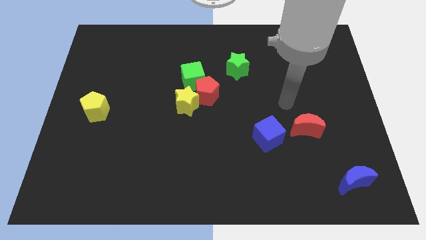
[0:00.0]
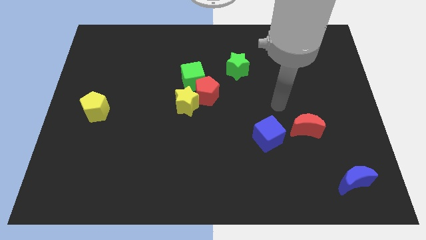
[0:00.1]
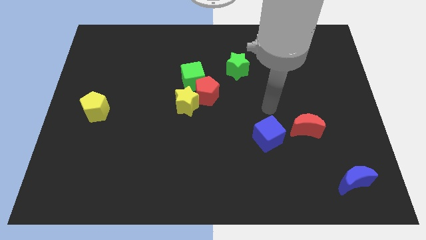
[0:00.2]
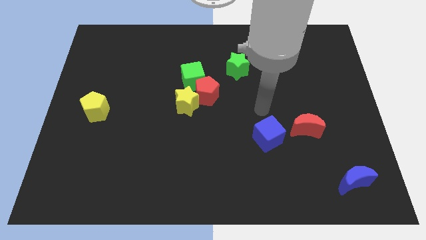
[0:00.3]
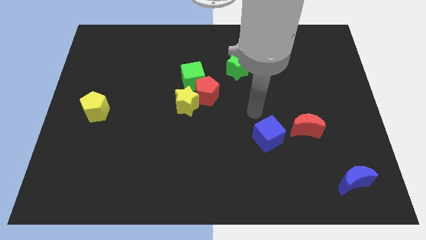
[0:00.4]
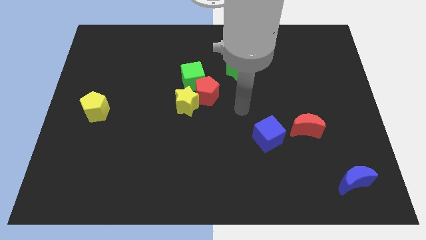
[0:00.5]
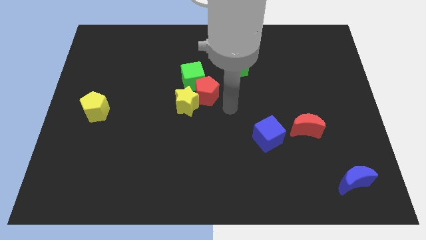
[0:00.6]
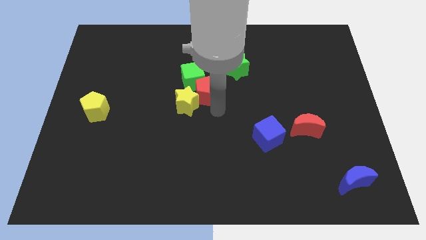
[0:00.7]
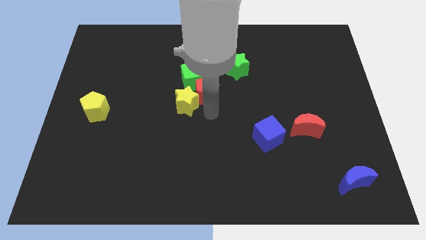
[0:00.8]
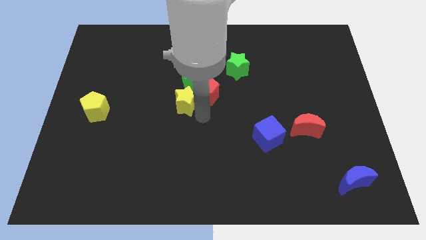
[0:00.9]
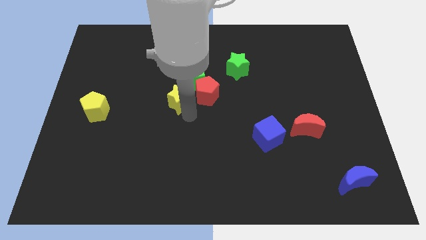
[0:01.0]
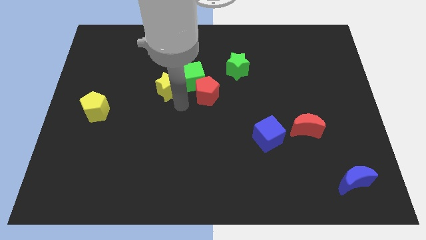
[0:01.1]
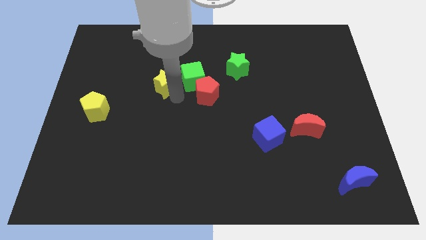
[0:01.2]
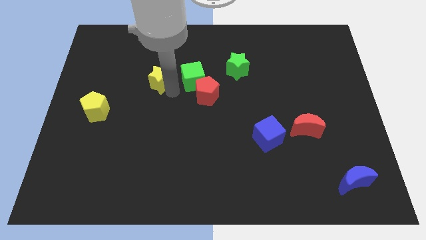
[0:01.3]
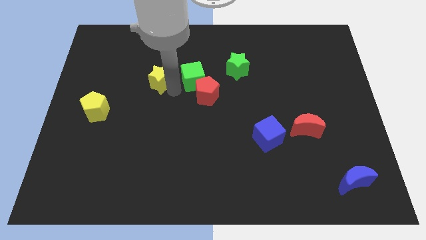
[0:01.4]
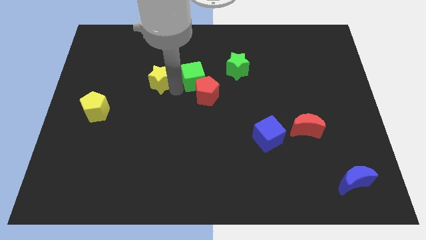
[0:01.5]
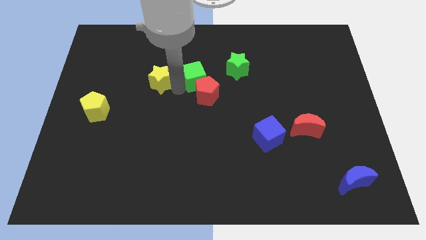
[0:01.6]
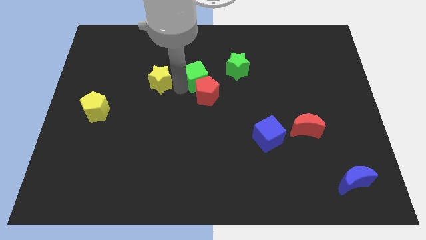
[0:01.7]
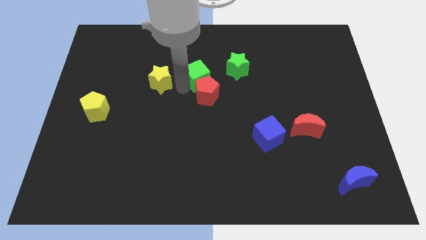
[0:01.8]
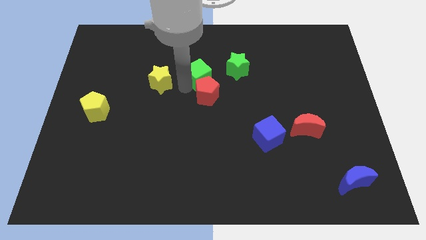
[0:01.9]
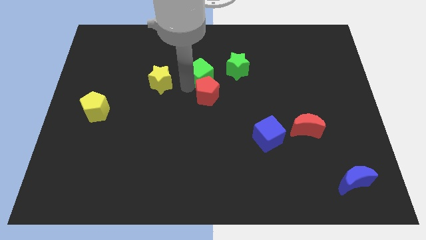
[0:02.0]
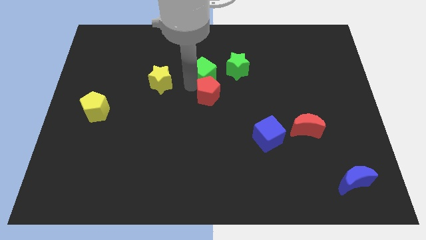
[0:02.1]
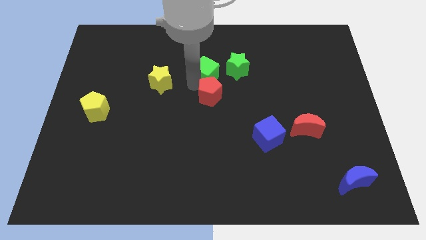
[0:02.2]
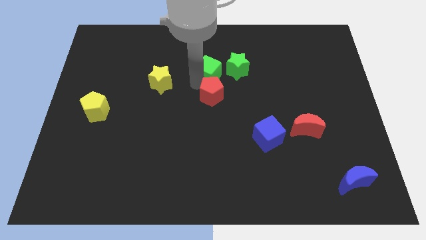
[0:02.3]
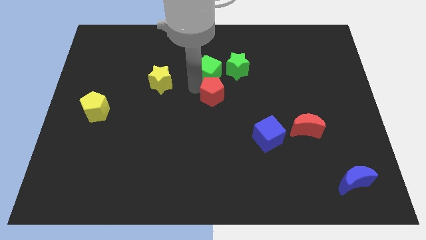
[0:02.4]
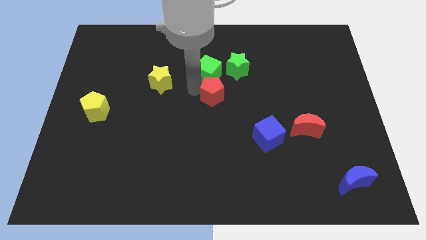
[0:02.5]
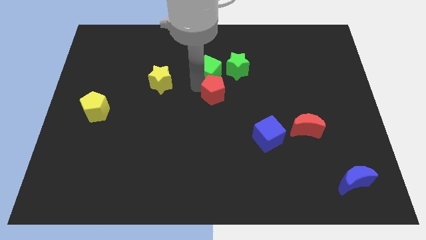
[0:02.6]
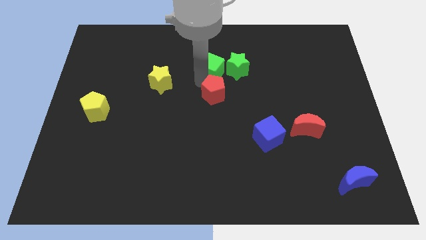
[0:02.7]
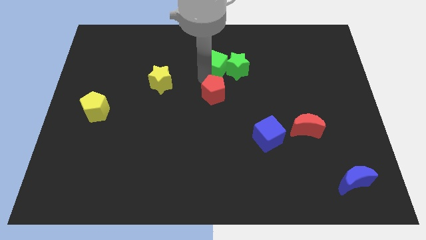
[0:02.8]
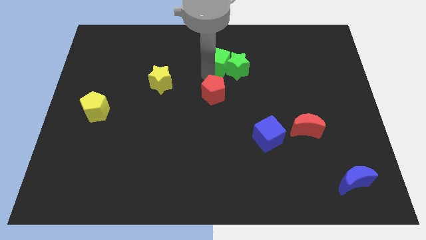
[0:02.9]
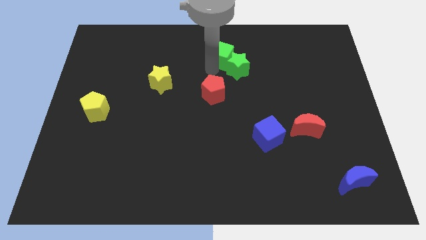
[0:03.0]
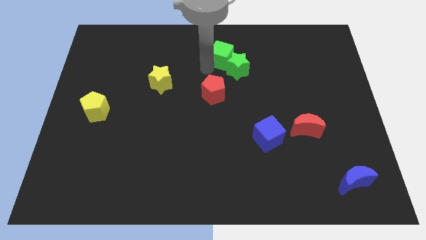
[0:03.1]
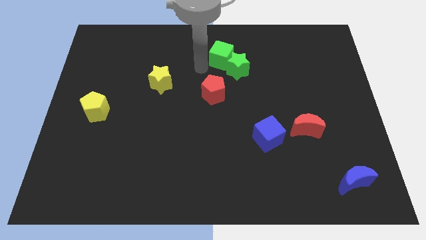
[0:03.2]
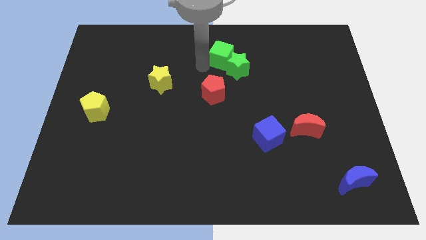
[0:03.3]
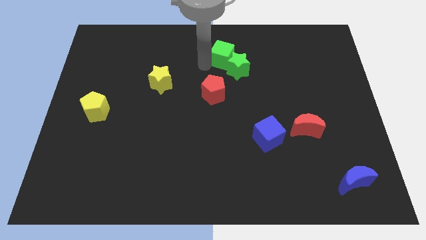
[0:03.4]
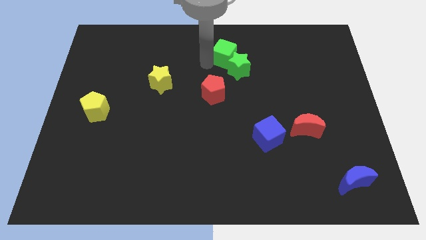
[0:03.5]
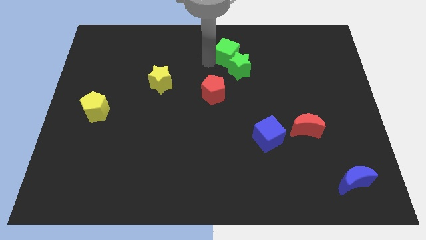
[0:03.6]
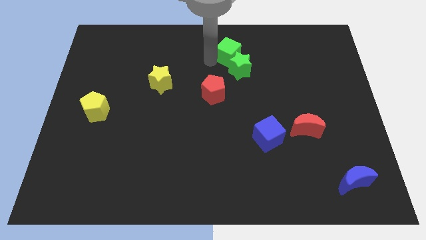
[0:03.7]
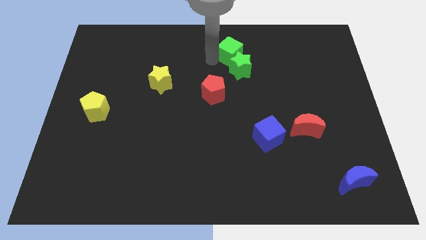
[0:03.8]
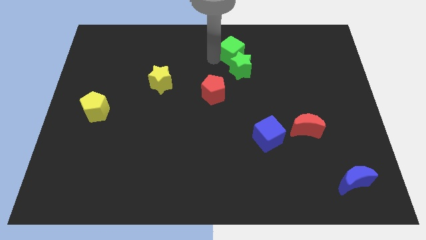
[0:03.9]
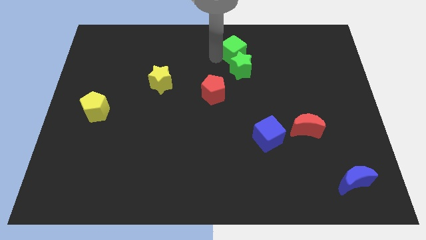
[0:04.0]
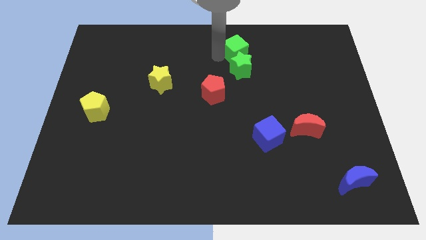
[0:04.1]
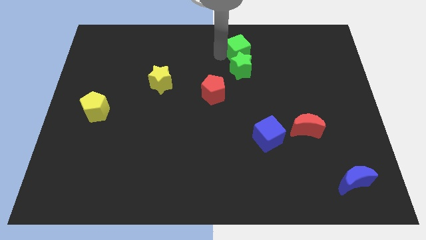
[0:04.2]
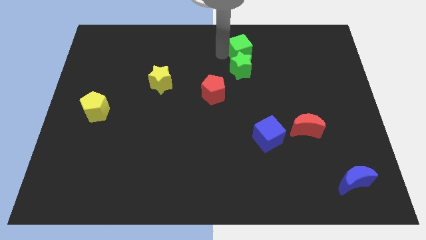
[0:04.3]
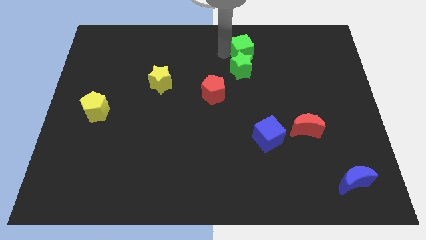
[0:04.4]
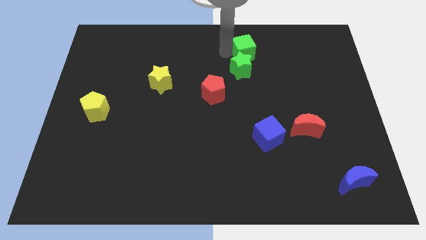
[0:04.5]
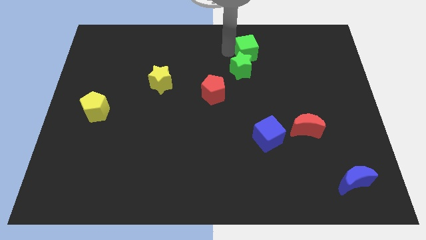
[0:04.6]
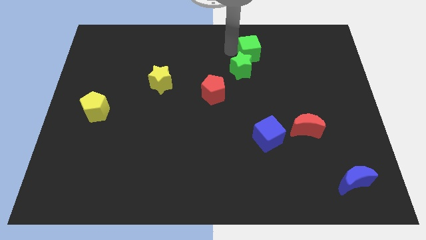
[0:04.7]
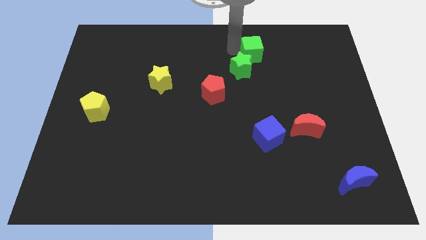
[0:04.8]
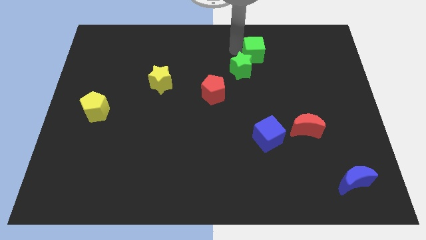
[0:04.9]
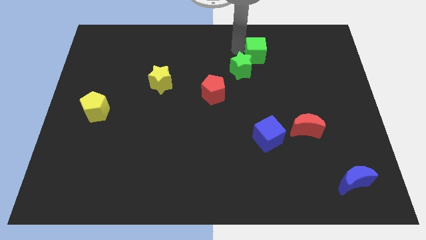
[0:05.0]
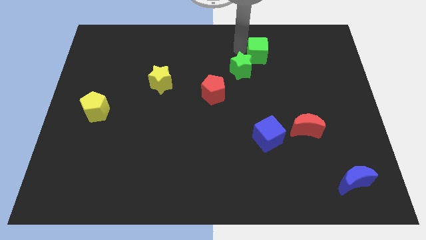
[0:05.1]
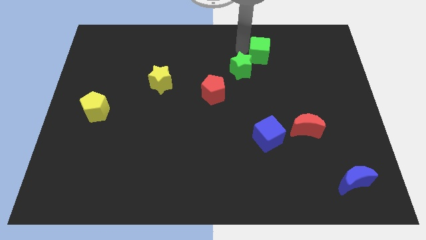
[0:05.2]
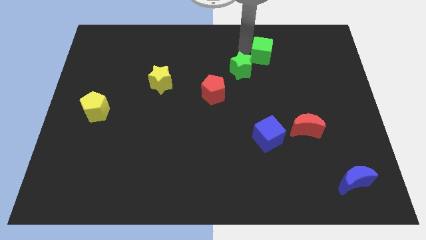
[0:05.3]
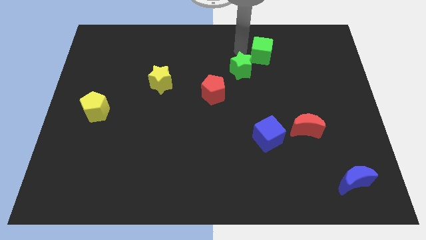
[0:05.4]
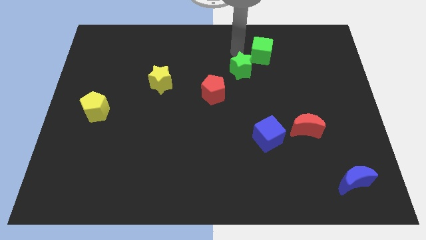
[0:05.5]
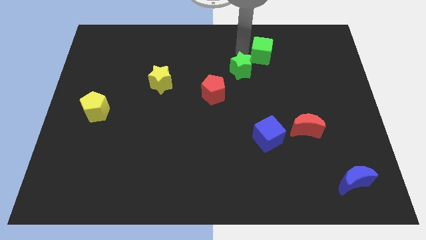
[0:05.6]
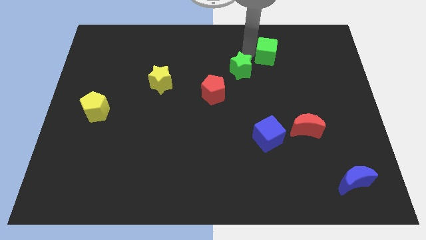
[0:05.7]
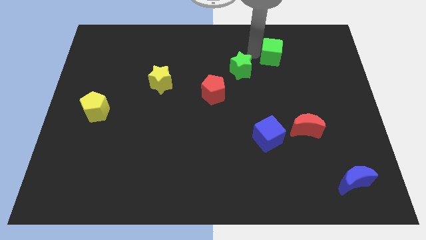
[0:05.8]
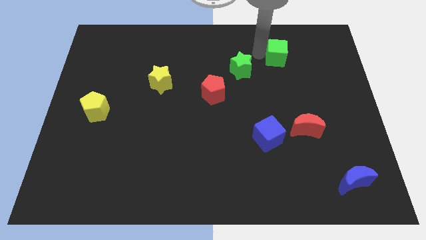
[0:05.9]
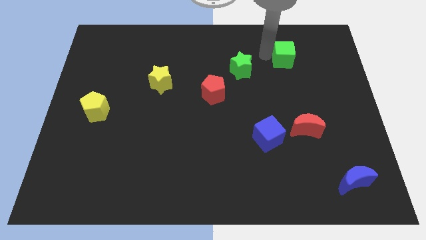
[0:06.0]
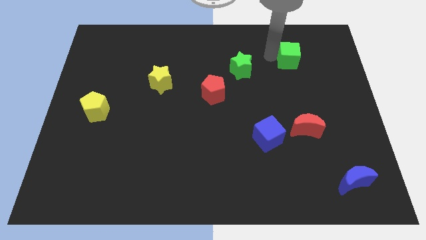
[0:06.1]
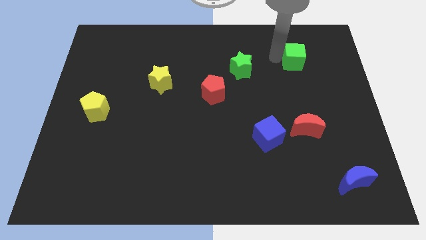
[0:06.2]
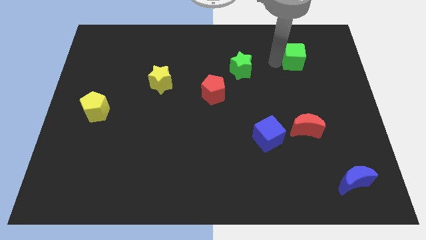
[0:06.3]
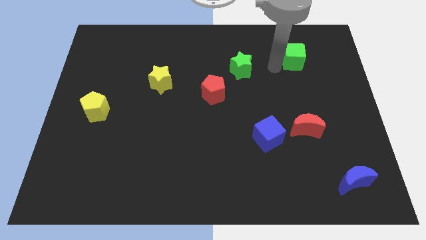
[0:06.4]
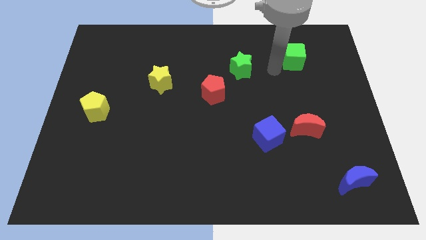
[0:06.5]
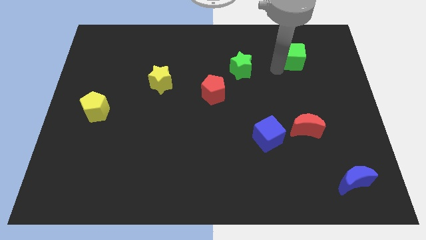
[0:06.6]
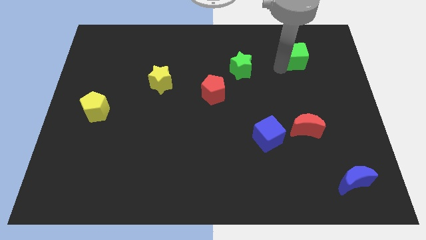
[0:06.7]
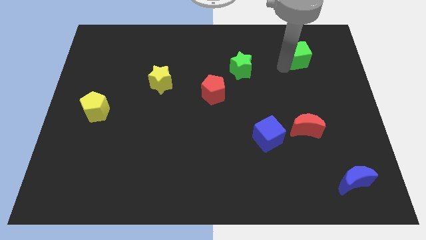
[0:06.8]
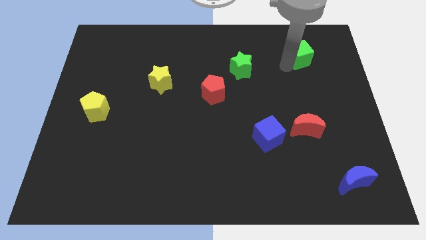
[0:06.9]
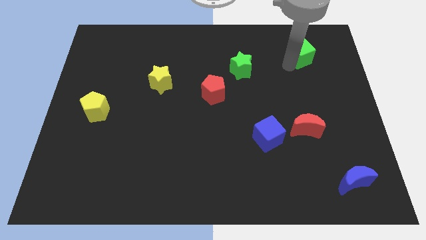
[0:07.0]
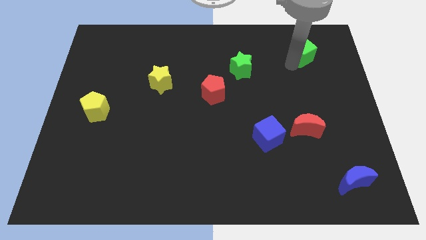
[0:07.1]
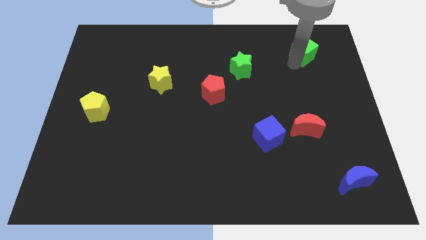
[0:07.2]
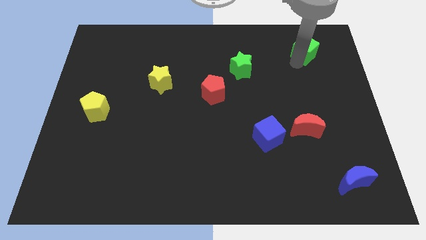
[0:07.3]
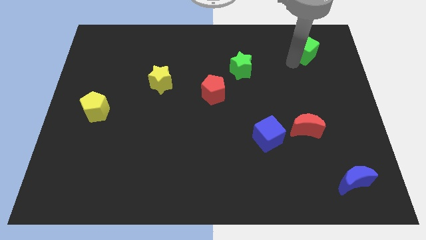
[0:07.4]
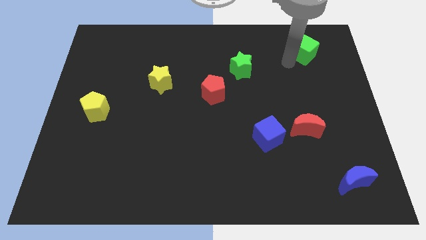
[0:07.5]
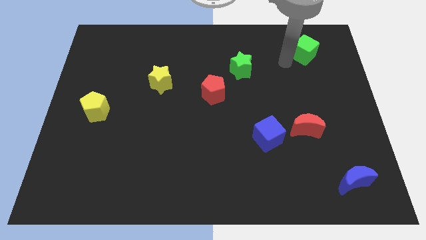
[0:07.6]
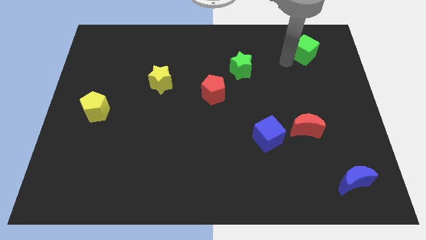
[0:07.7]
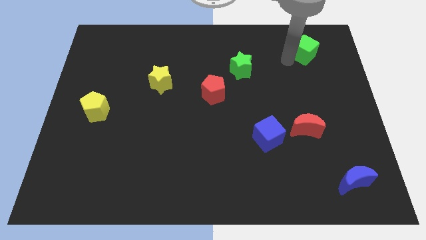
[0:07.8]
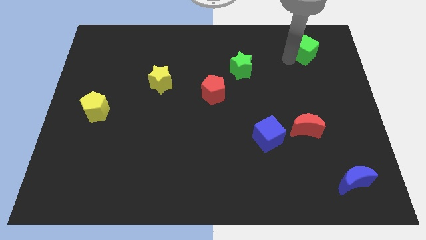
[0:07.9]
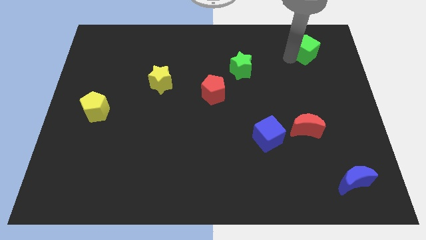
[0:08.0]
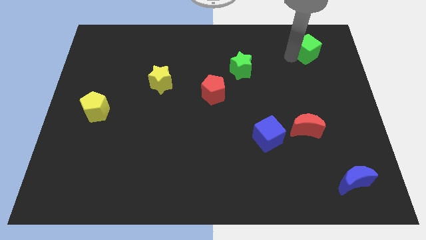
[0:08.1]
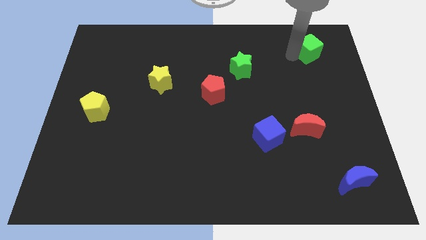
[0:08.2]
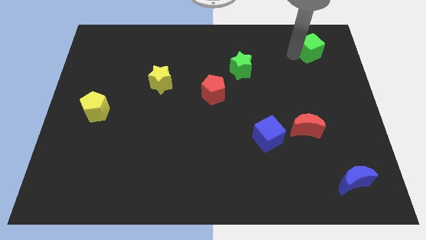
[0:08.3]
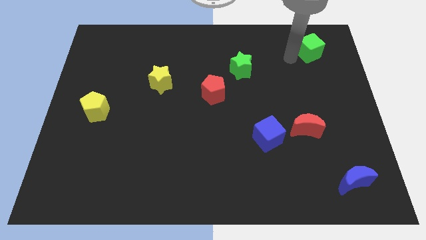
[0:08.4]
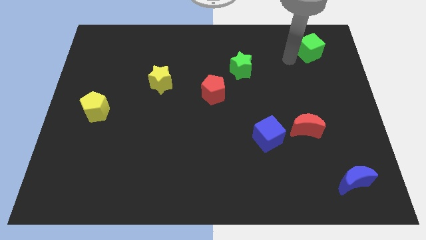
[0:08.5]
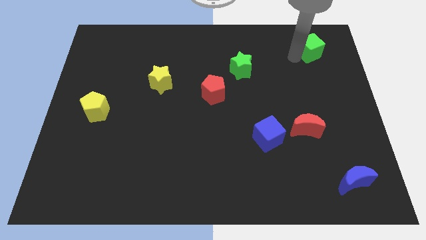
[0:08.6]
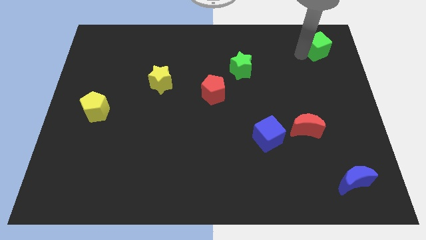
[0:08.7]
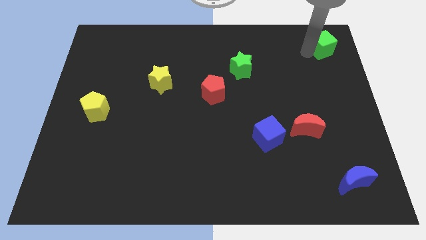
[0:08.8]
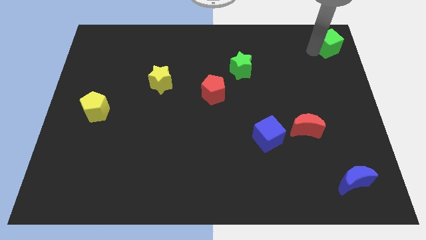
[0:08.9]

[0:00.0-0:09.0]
put the green cube to the upper right corner
